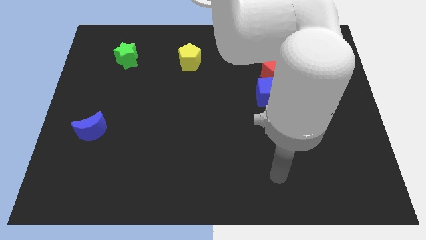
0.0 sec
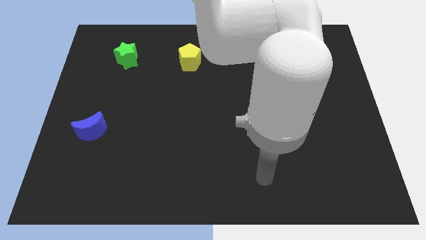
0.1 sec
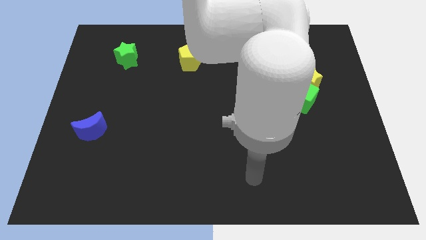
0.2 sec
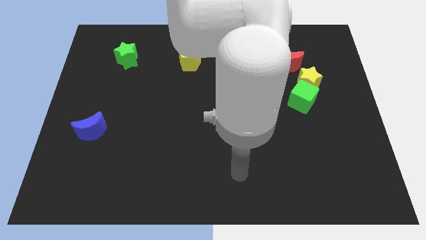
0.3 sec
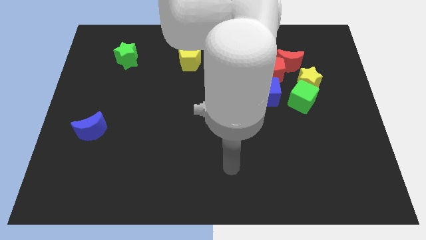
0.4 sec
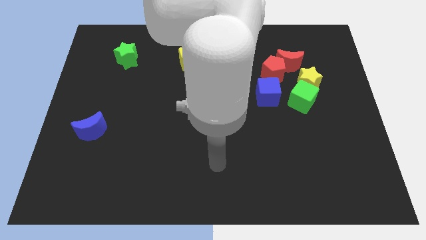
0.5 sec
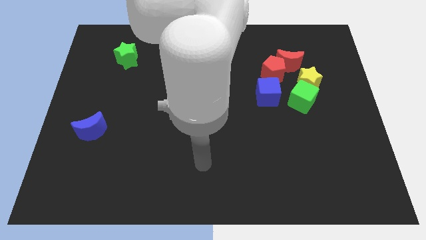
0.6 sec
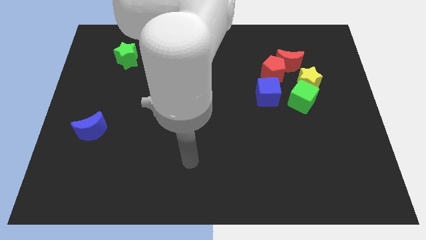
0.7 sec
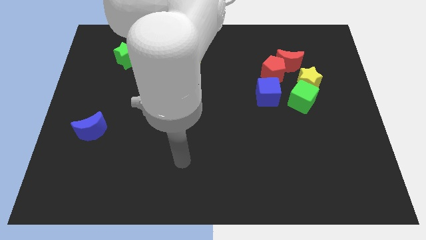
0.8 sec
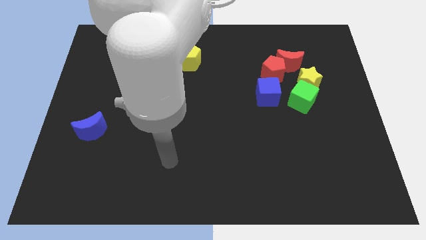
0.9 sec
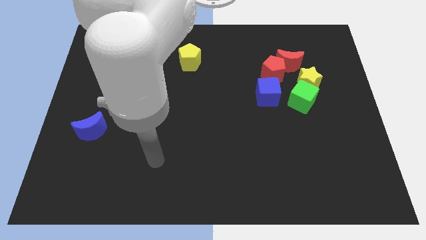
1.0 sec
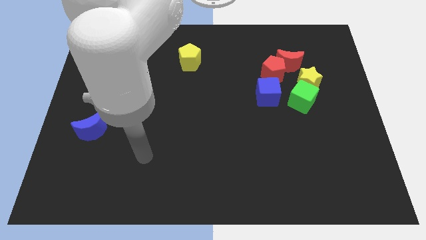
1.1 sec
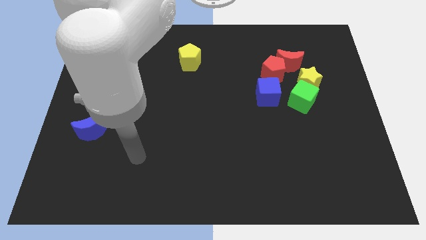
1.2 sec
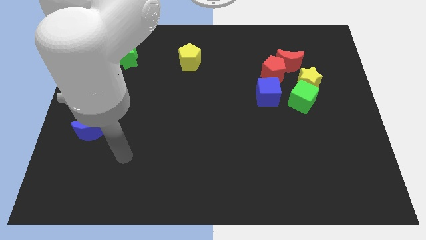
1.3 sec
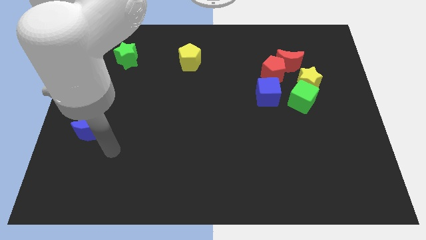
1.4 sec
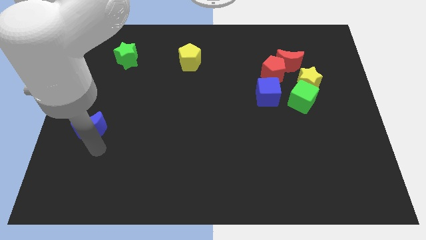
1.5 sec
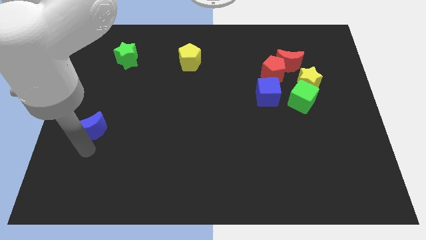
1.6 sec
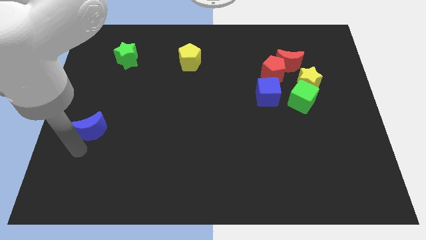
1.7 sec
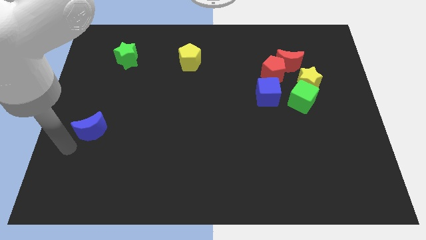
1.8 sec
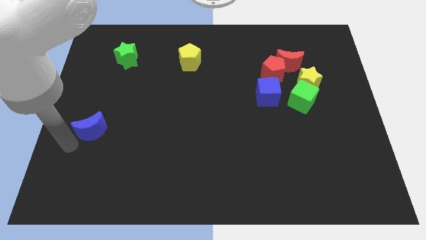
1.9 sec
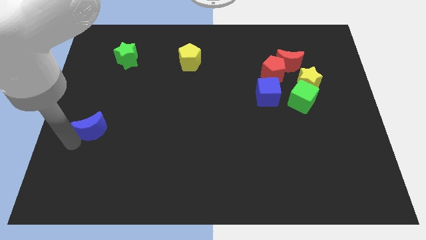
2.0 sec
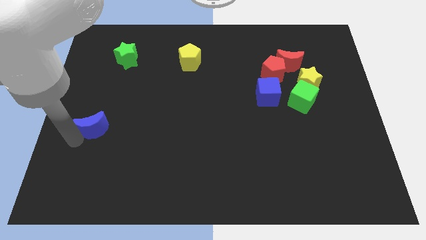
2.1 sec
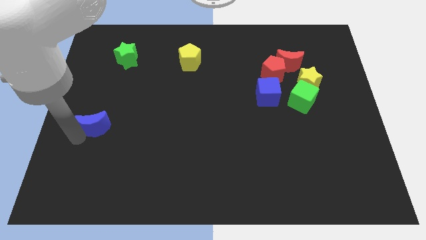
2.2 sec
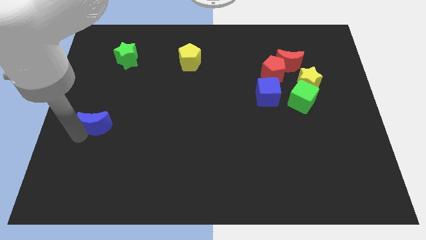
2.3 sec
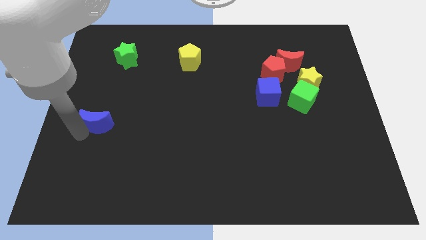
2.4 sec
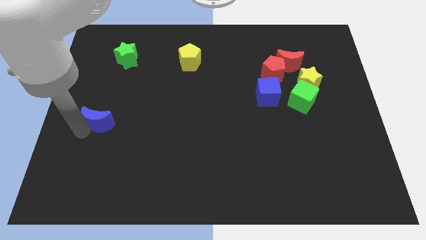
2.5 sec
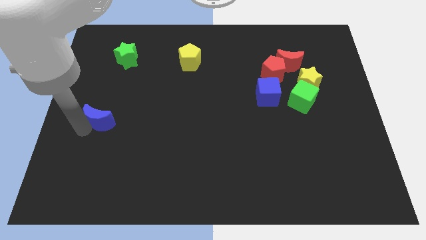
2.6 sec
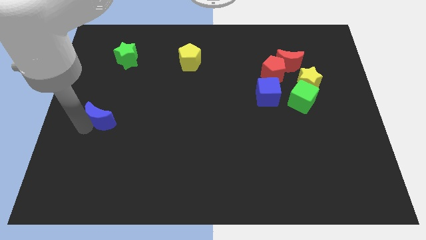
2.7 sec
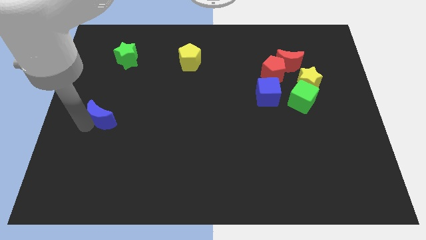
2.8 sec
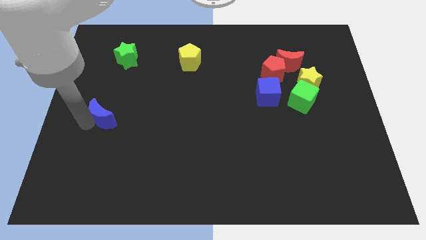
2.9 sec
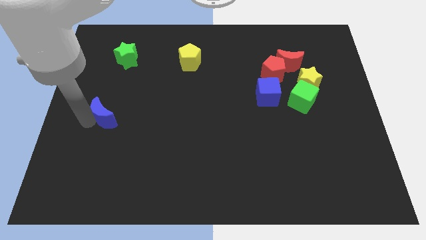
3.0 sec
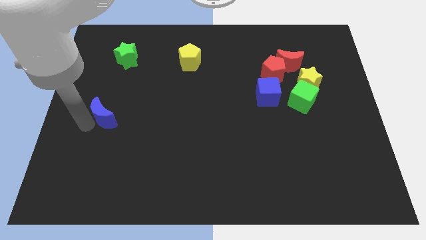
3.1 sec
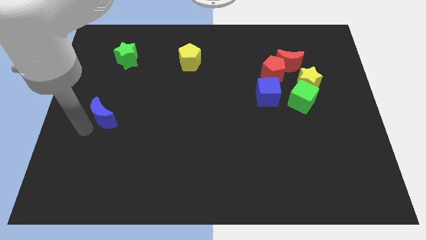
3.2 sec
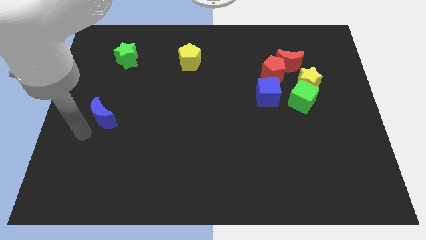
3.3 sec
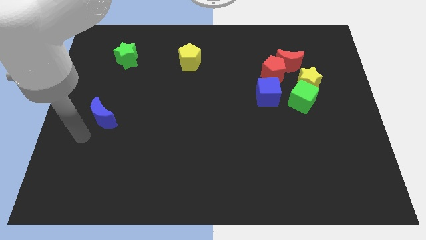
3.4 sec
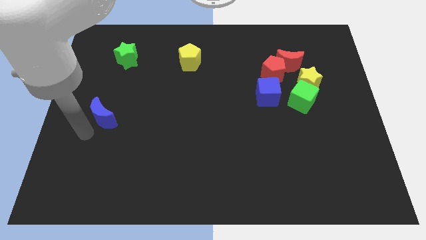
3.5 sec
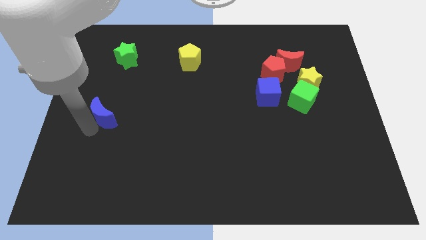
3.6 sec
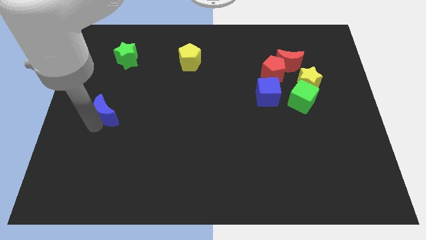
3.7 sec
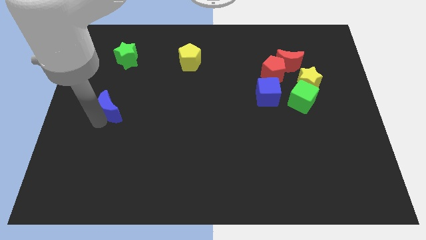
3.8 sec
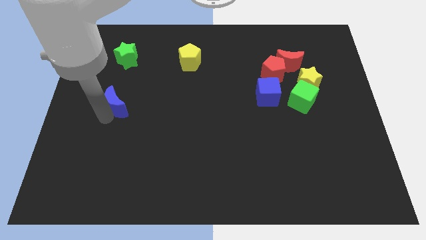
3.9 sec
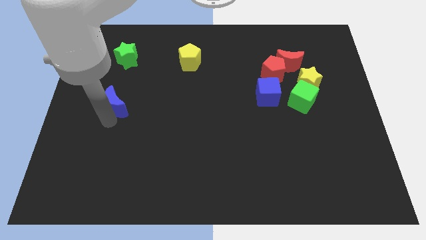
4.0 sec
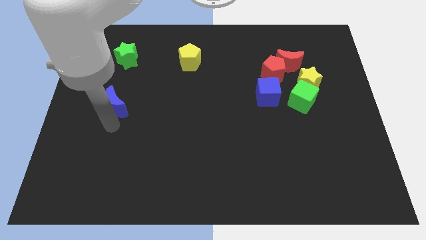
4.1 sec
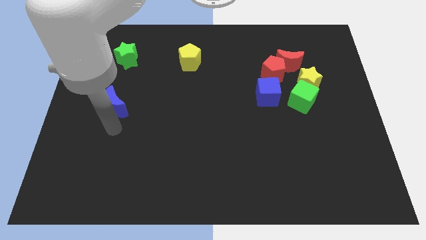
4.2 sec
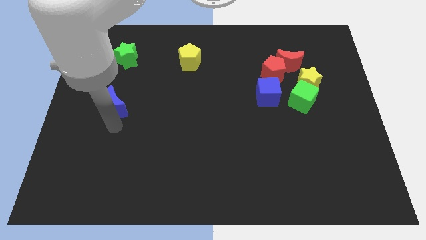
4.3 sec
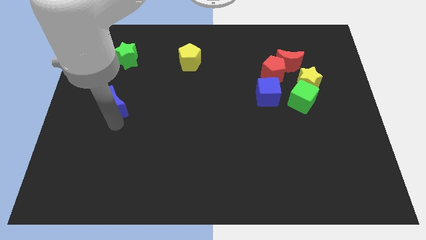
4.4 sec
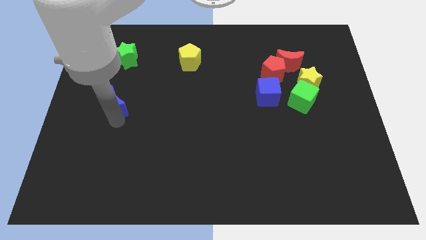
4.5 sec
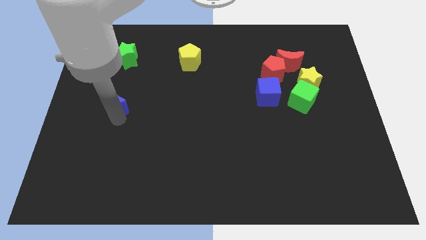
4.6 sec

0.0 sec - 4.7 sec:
push the blue moon a bit up

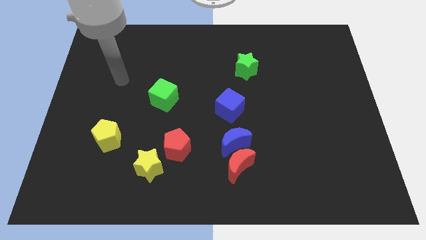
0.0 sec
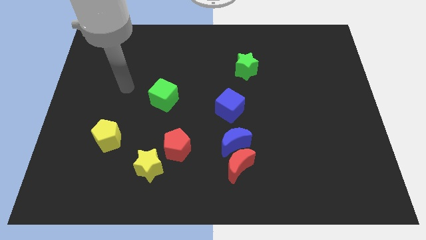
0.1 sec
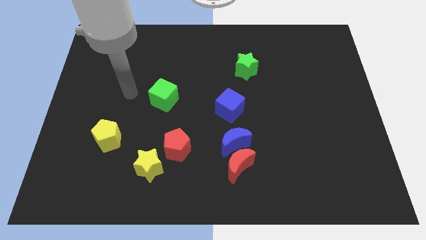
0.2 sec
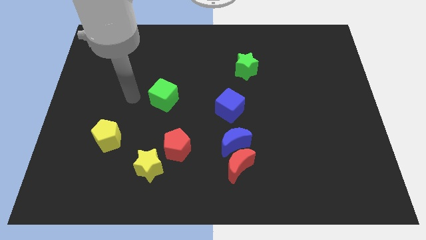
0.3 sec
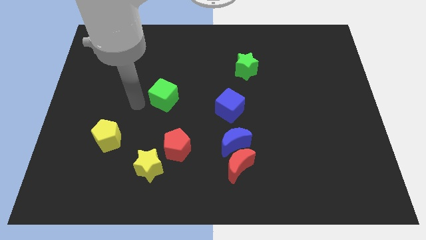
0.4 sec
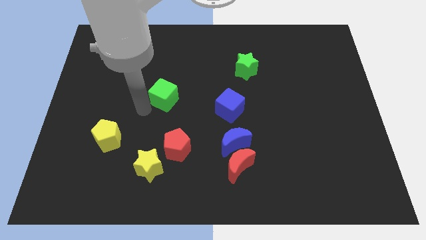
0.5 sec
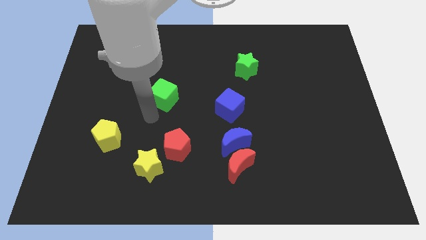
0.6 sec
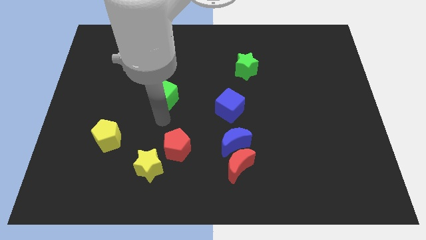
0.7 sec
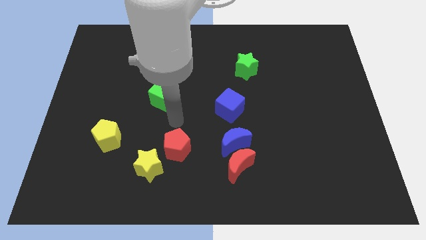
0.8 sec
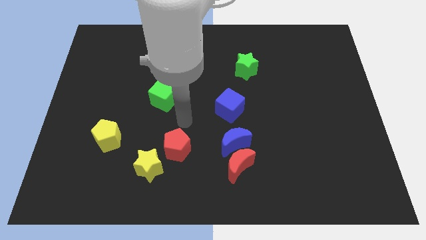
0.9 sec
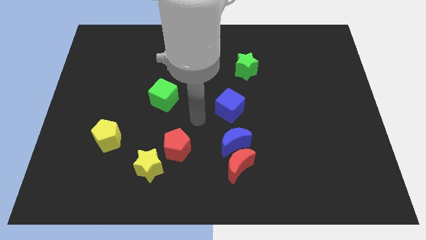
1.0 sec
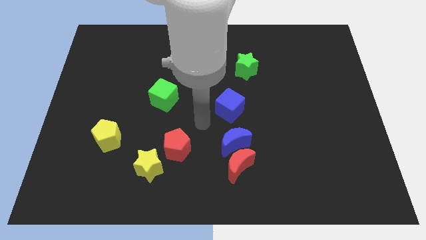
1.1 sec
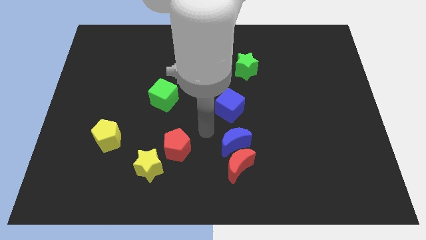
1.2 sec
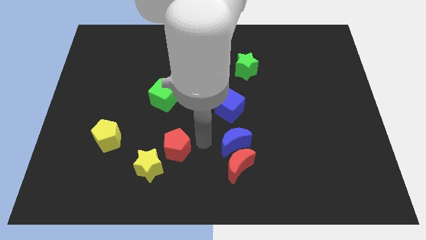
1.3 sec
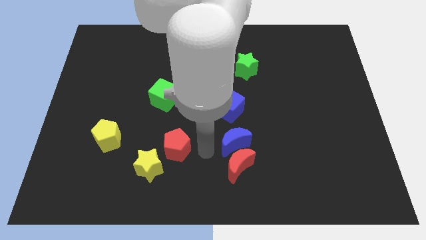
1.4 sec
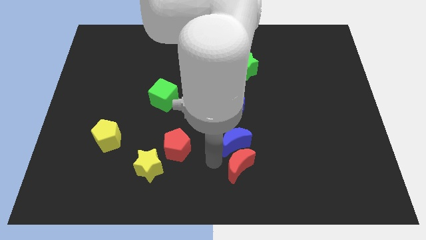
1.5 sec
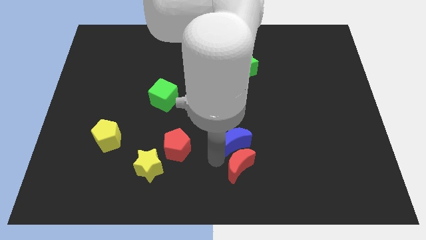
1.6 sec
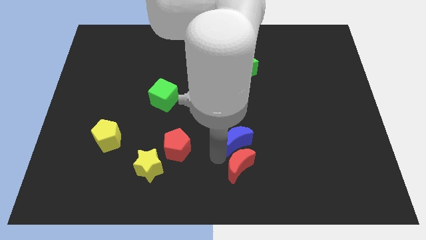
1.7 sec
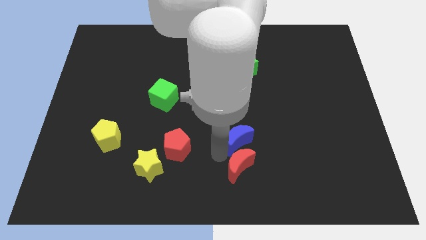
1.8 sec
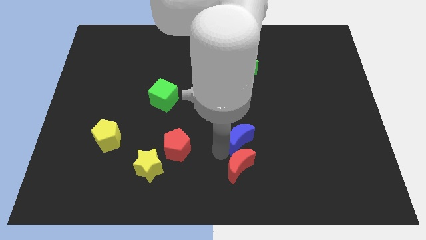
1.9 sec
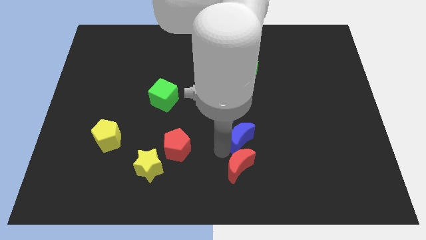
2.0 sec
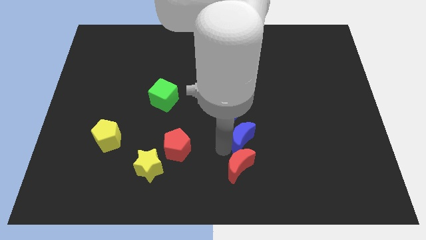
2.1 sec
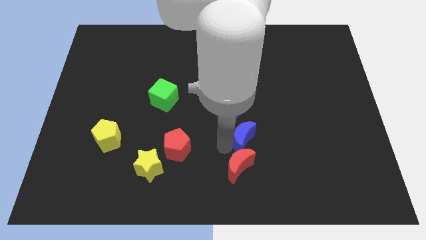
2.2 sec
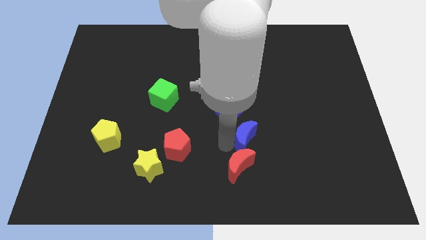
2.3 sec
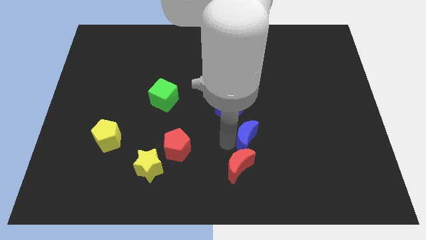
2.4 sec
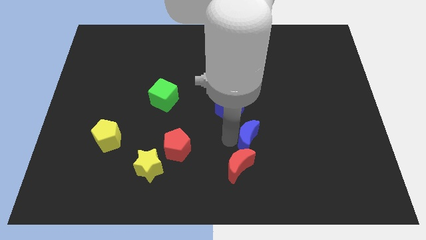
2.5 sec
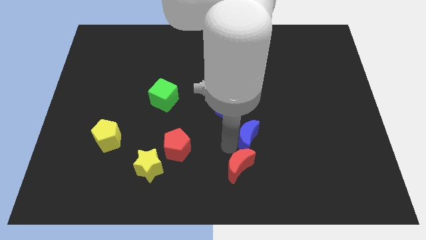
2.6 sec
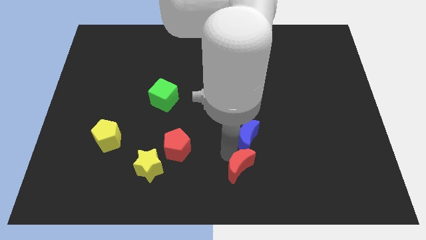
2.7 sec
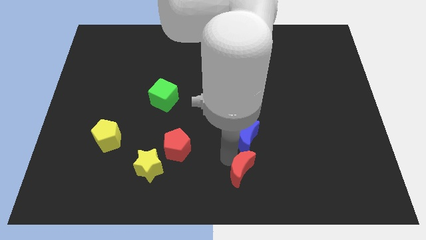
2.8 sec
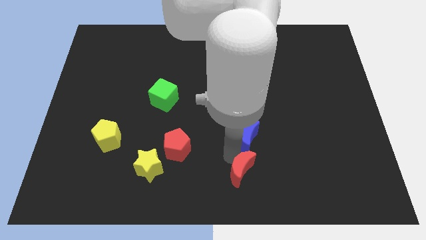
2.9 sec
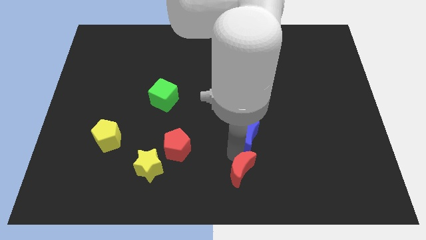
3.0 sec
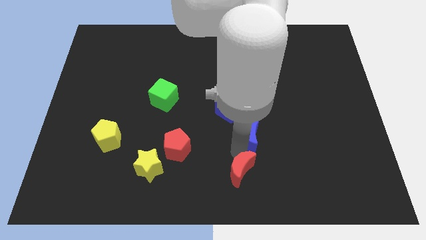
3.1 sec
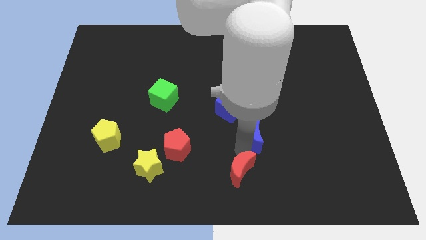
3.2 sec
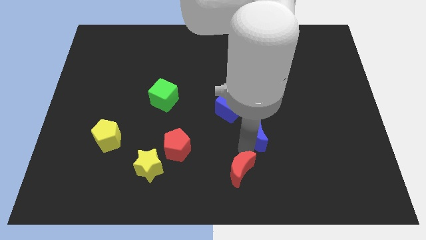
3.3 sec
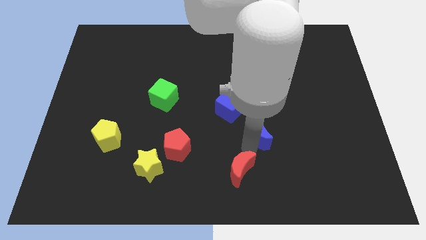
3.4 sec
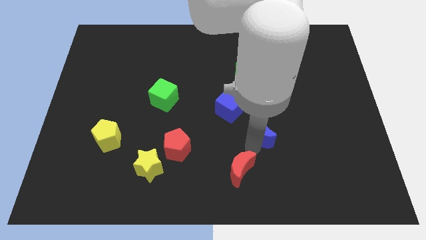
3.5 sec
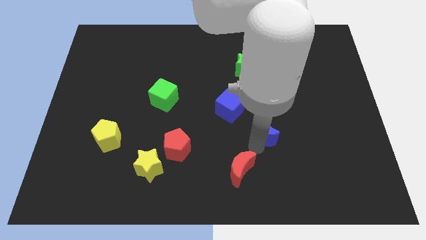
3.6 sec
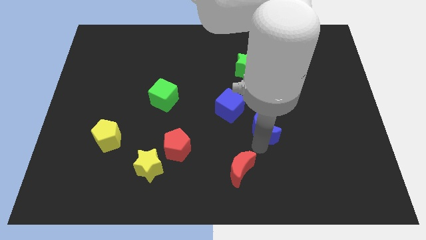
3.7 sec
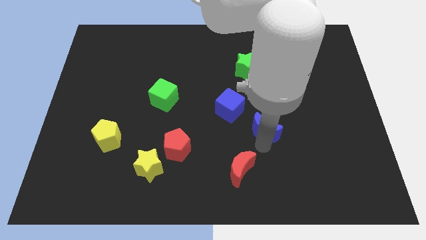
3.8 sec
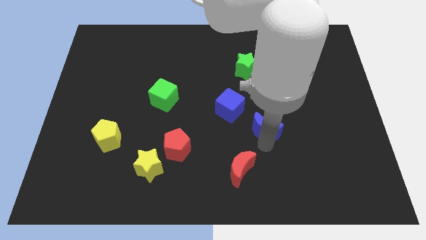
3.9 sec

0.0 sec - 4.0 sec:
slide the blue moon somewhat diagonally upwards and right
